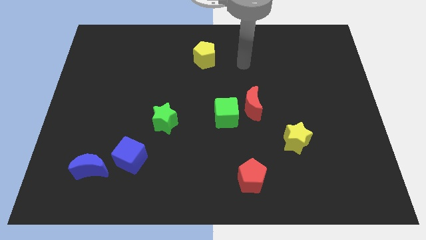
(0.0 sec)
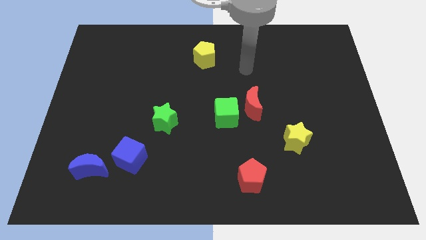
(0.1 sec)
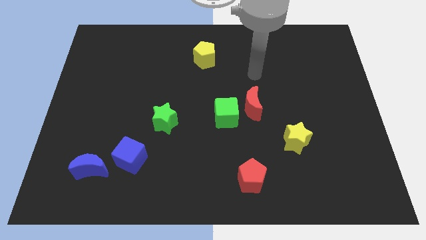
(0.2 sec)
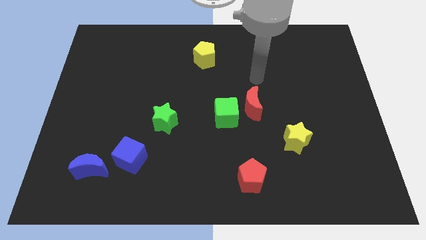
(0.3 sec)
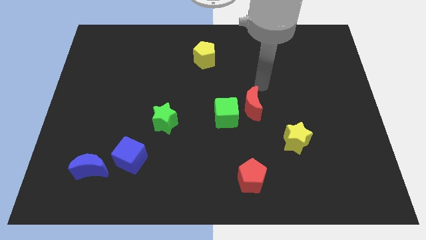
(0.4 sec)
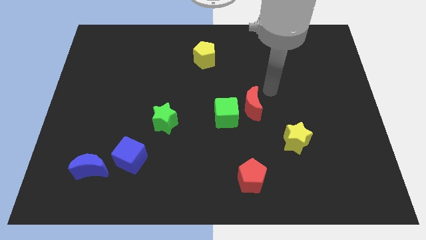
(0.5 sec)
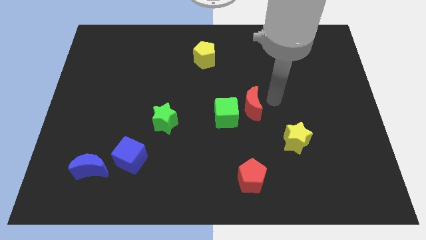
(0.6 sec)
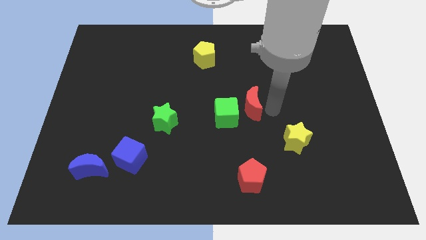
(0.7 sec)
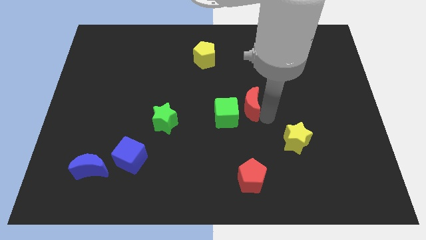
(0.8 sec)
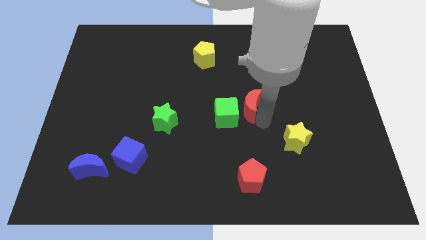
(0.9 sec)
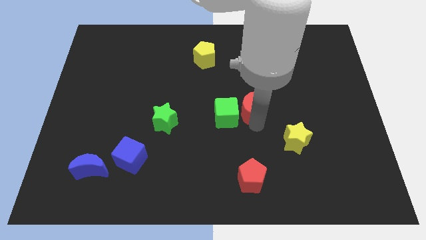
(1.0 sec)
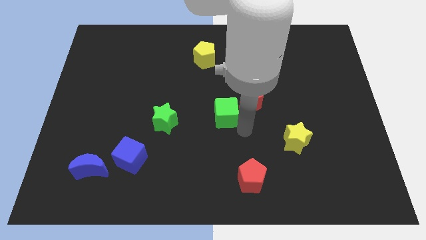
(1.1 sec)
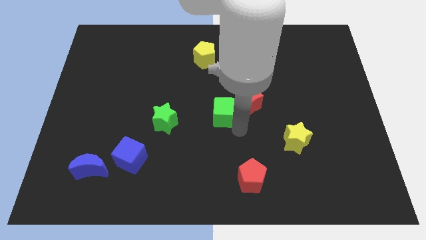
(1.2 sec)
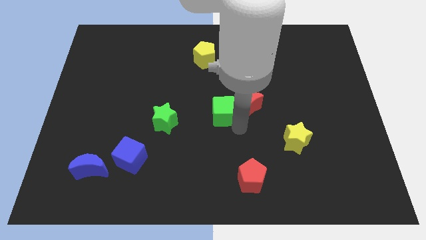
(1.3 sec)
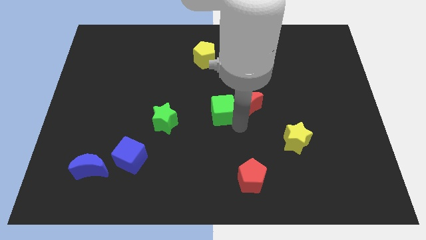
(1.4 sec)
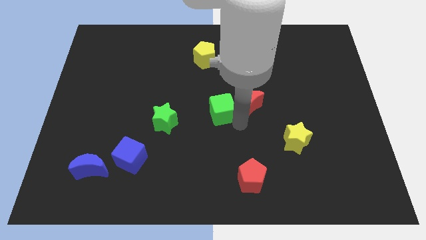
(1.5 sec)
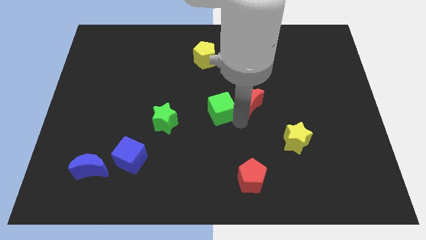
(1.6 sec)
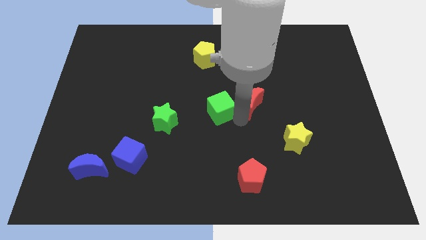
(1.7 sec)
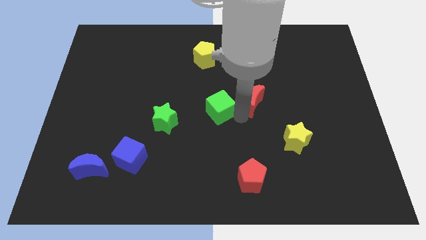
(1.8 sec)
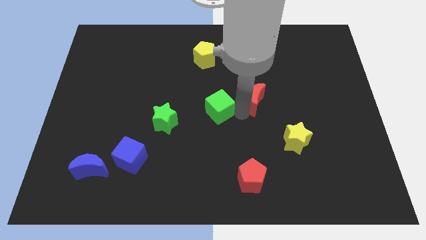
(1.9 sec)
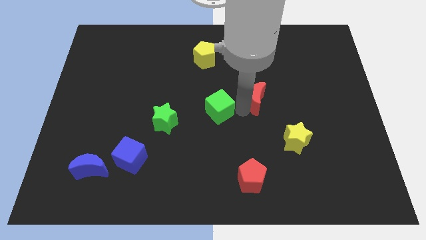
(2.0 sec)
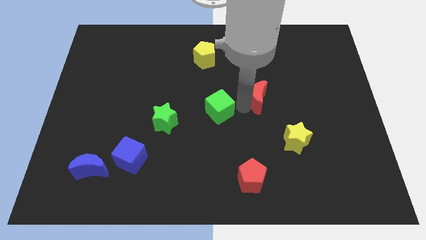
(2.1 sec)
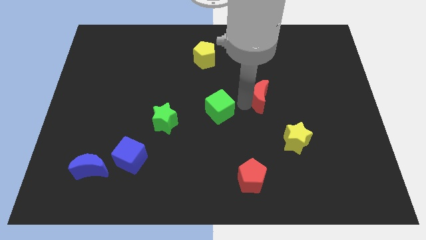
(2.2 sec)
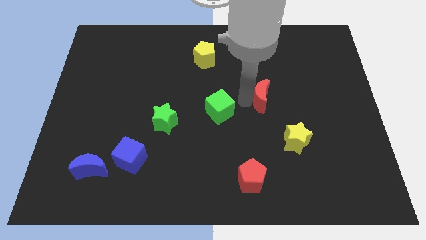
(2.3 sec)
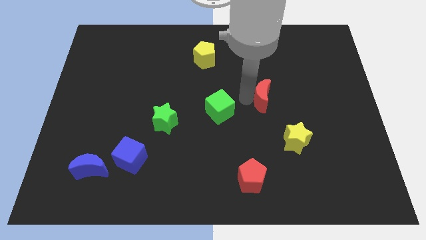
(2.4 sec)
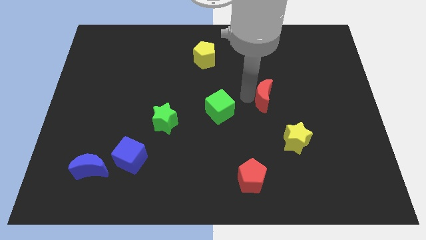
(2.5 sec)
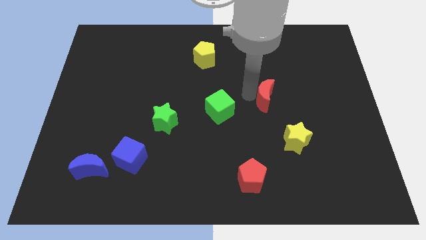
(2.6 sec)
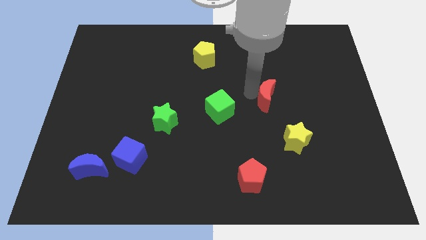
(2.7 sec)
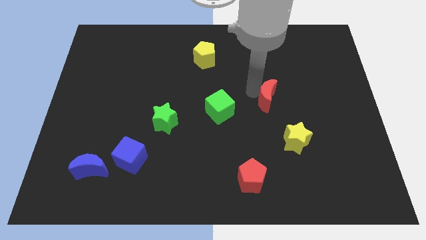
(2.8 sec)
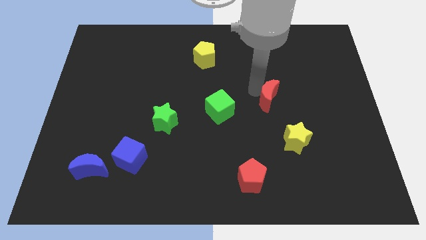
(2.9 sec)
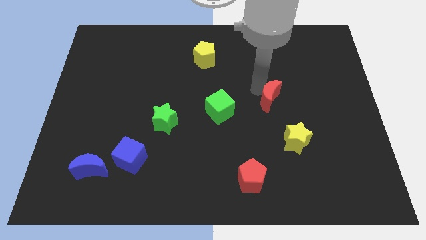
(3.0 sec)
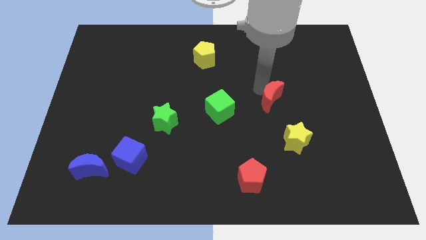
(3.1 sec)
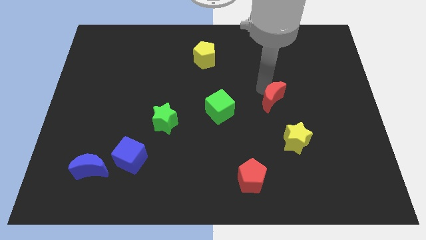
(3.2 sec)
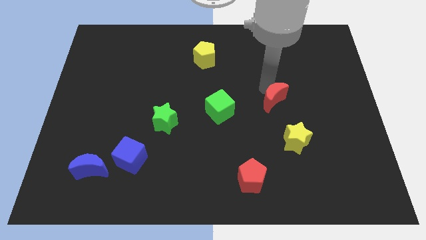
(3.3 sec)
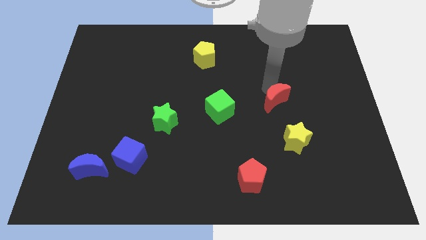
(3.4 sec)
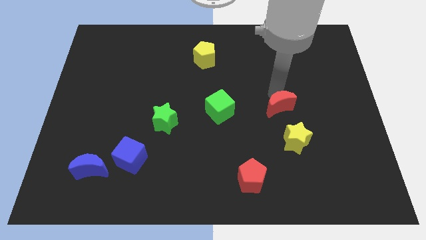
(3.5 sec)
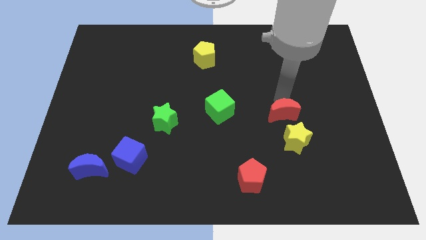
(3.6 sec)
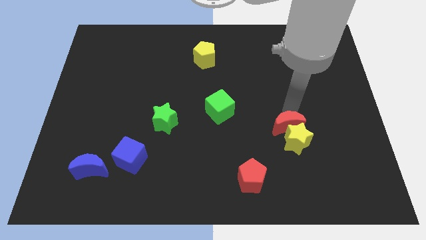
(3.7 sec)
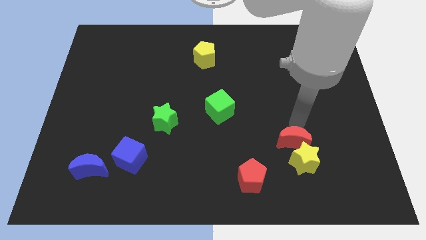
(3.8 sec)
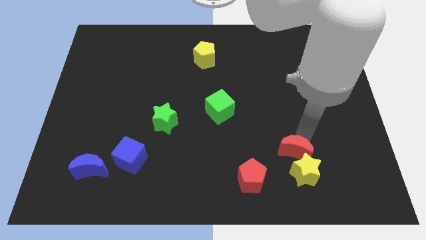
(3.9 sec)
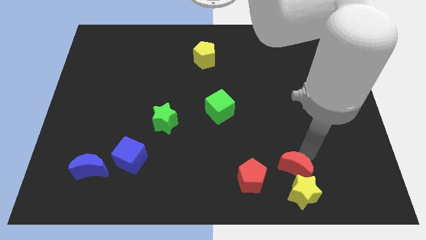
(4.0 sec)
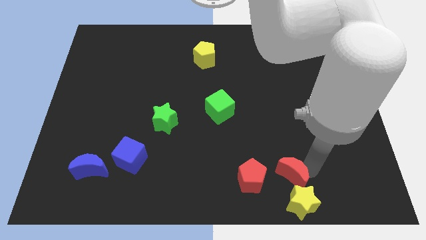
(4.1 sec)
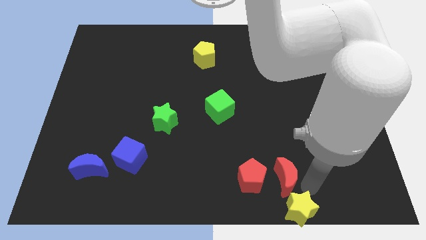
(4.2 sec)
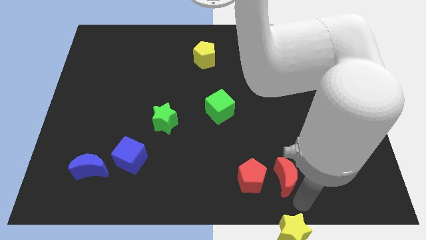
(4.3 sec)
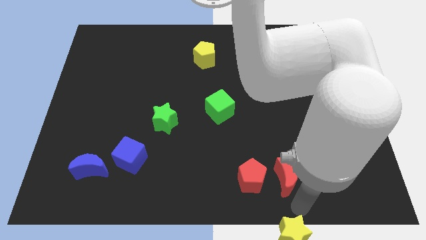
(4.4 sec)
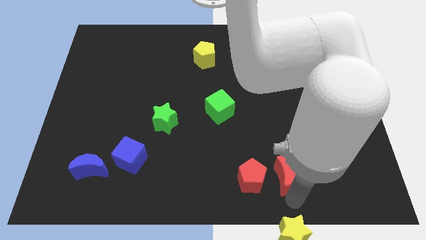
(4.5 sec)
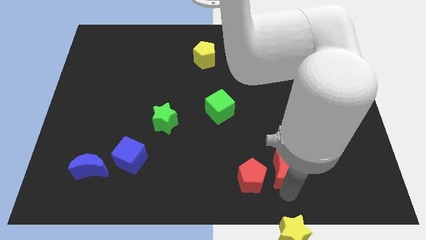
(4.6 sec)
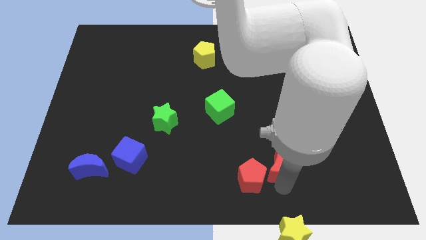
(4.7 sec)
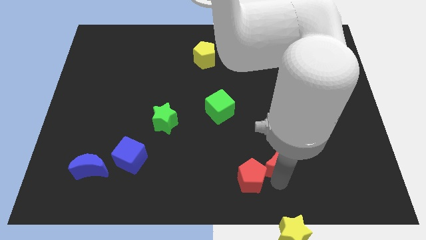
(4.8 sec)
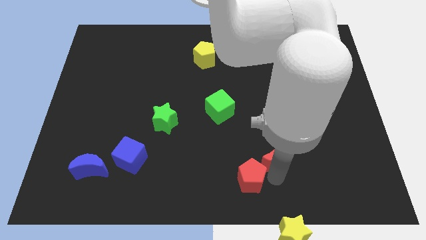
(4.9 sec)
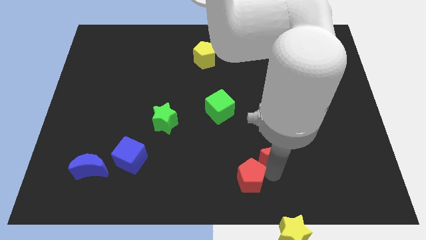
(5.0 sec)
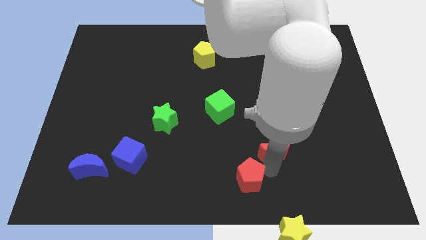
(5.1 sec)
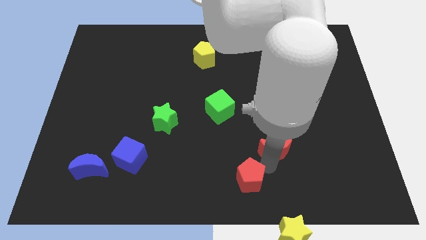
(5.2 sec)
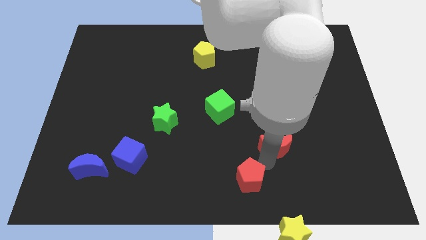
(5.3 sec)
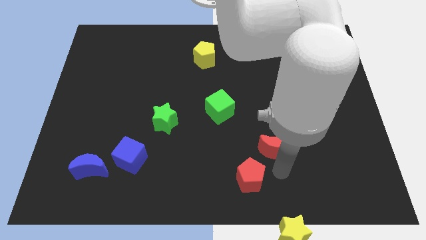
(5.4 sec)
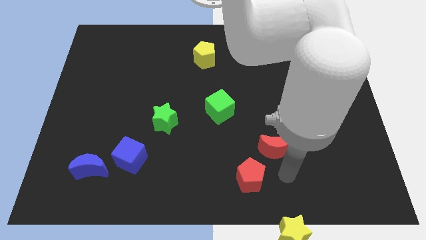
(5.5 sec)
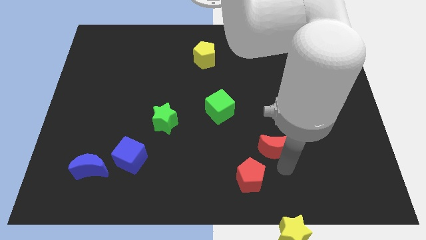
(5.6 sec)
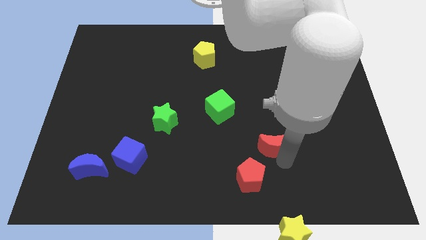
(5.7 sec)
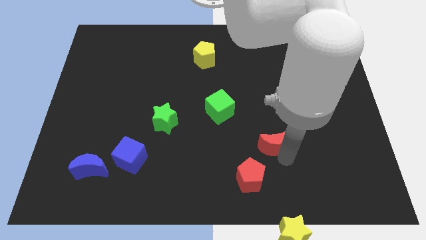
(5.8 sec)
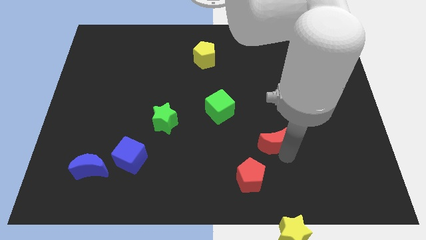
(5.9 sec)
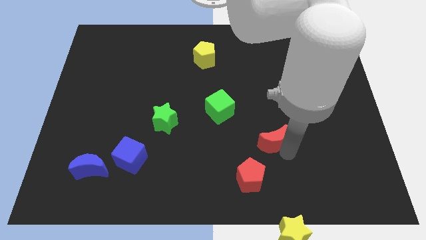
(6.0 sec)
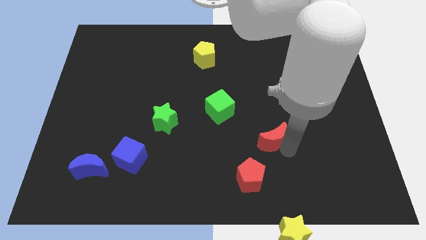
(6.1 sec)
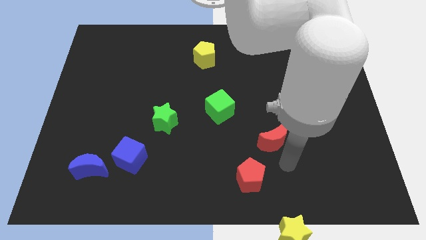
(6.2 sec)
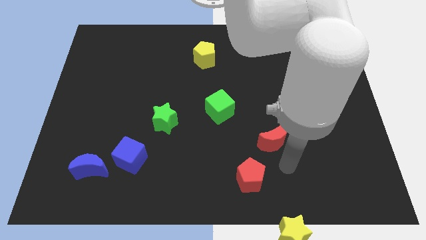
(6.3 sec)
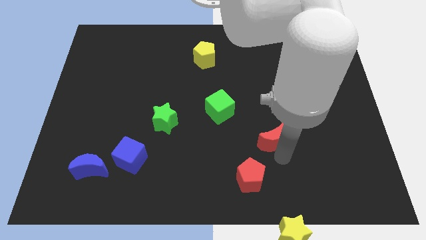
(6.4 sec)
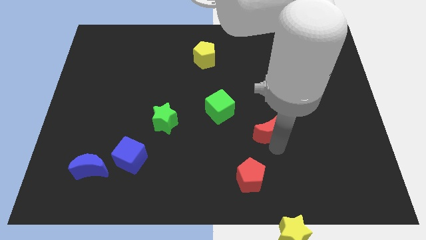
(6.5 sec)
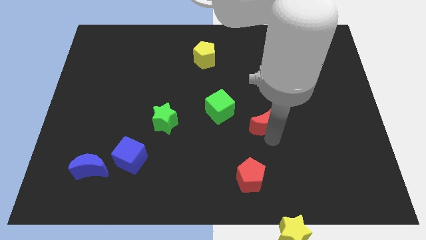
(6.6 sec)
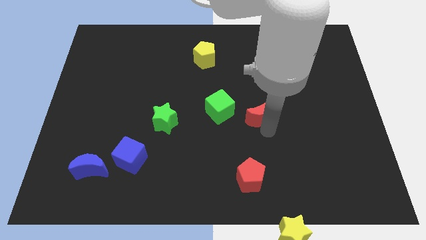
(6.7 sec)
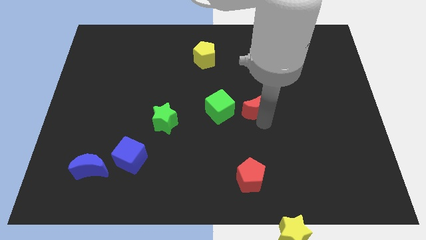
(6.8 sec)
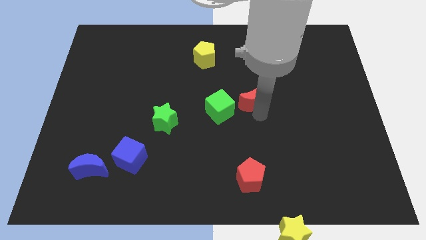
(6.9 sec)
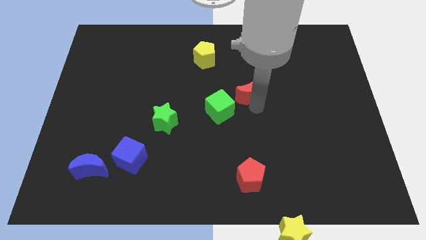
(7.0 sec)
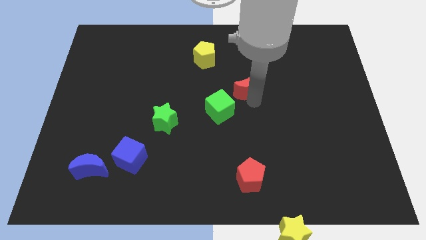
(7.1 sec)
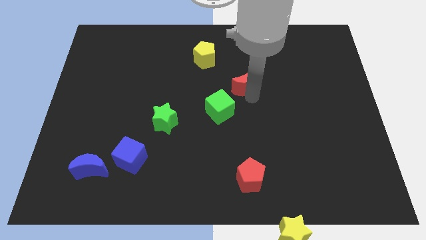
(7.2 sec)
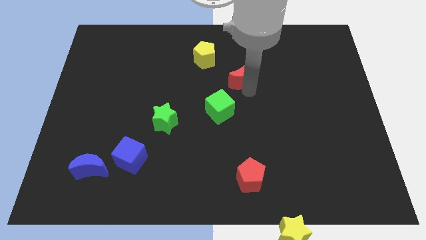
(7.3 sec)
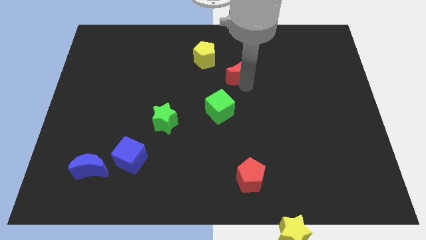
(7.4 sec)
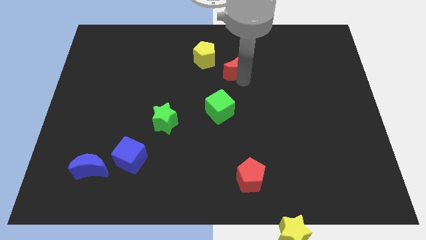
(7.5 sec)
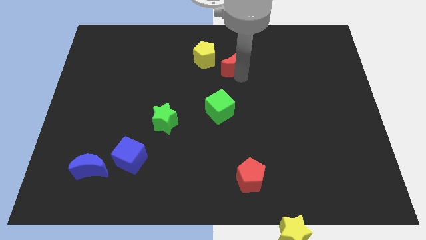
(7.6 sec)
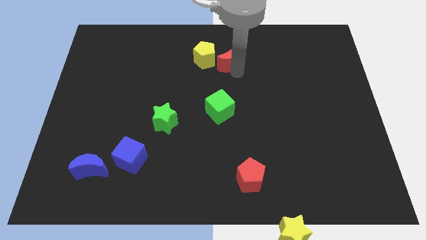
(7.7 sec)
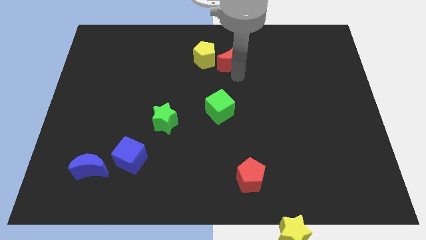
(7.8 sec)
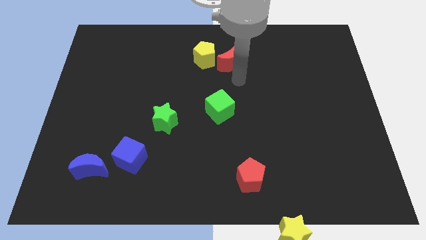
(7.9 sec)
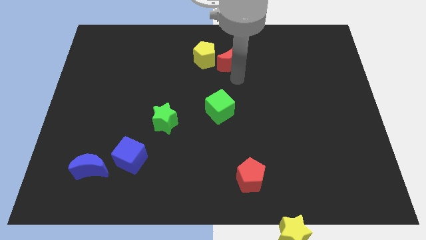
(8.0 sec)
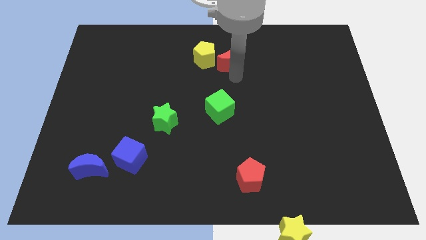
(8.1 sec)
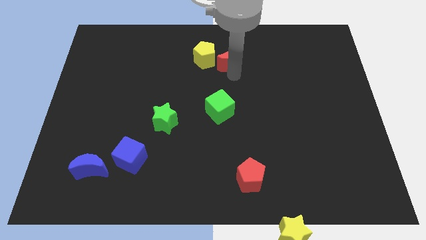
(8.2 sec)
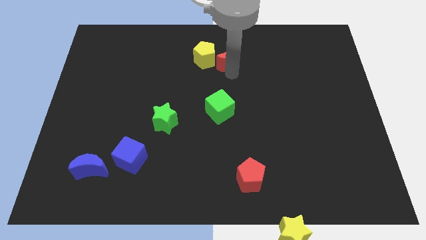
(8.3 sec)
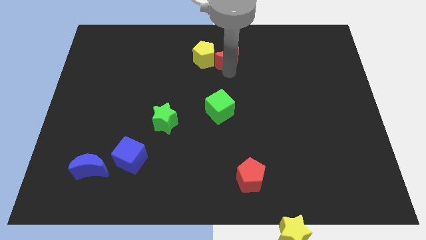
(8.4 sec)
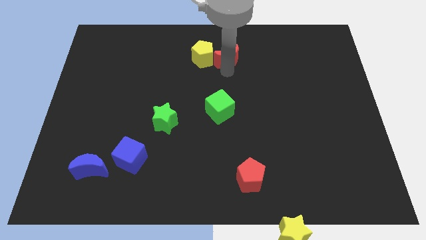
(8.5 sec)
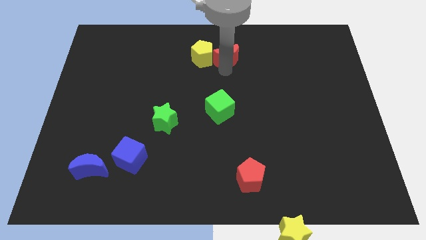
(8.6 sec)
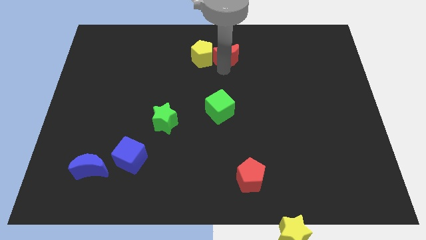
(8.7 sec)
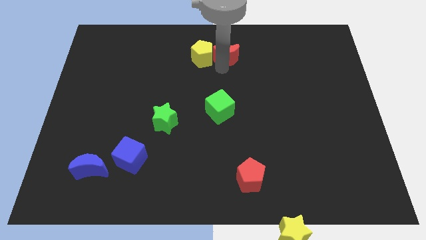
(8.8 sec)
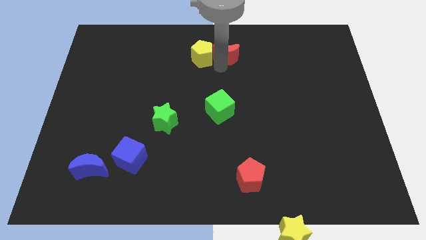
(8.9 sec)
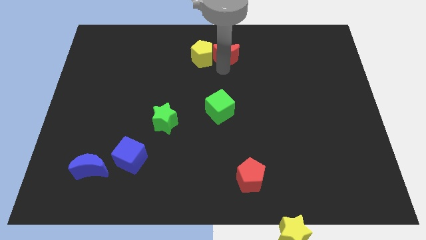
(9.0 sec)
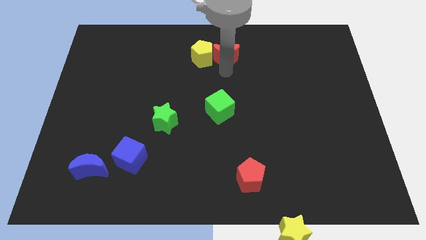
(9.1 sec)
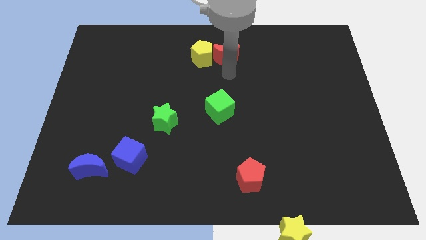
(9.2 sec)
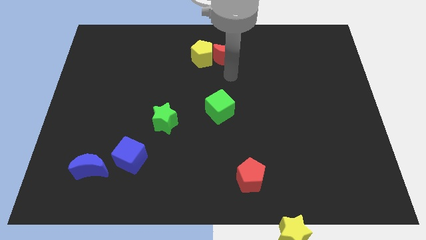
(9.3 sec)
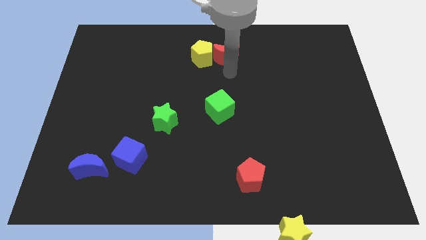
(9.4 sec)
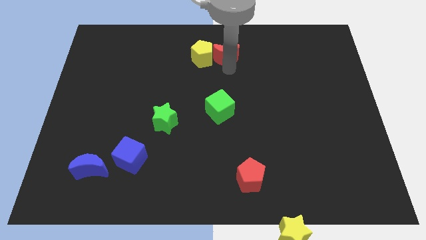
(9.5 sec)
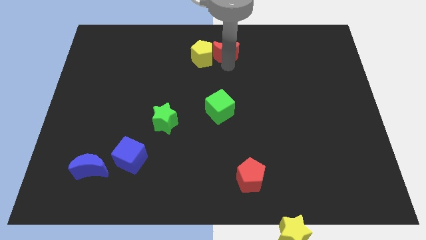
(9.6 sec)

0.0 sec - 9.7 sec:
put the red moon to the top
